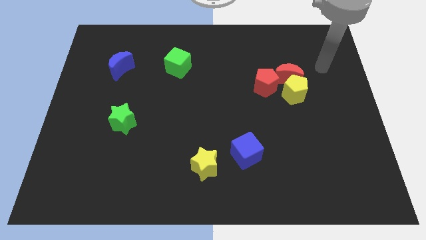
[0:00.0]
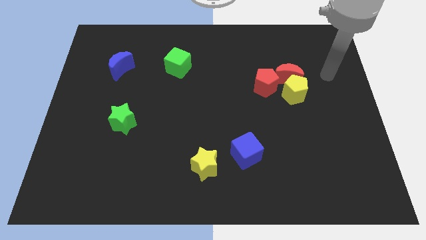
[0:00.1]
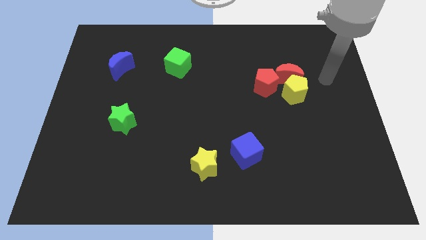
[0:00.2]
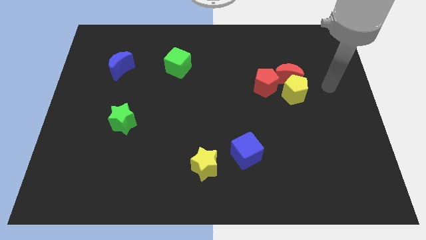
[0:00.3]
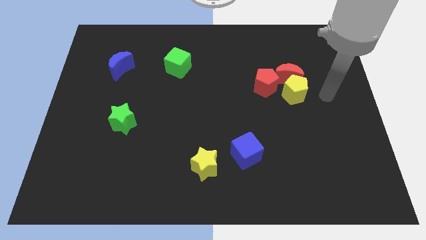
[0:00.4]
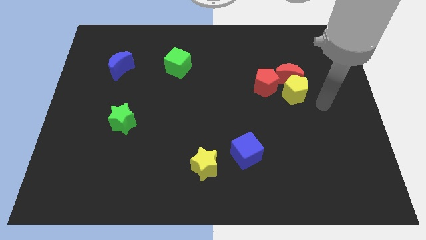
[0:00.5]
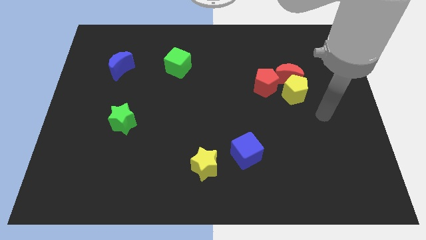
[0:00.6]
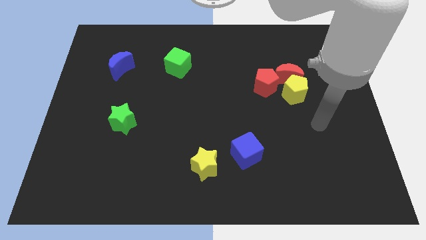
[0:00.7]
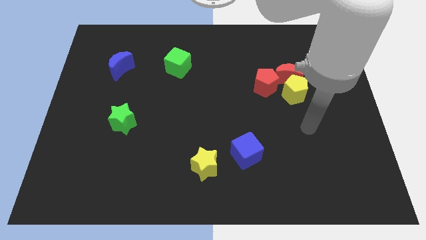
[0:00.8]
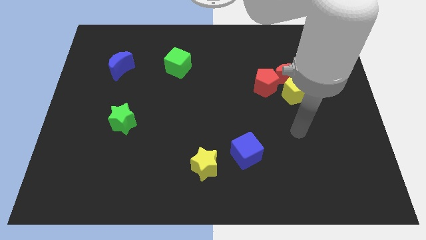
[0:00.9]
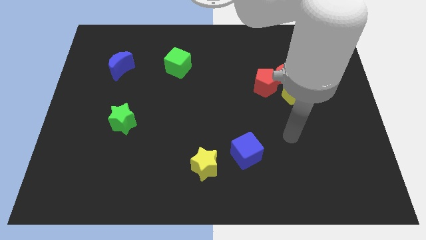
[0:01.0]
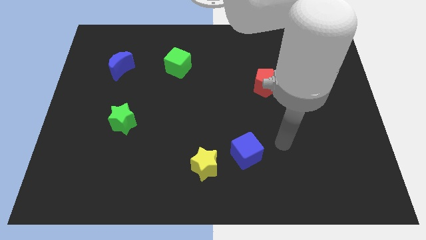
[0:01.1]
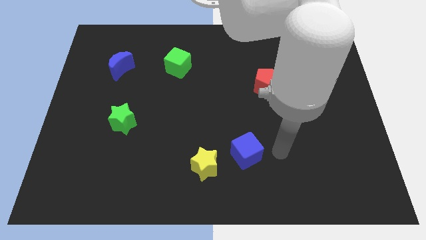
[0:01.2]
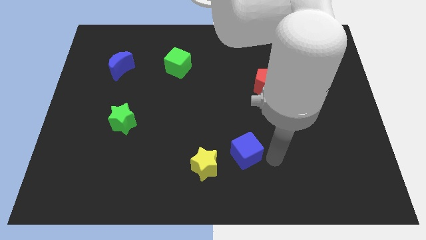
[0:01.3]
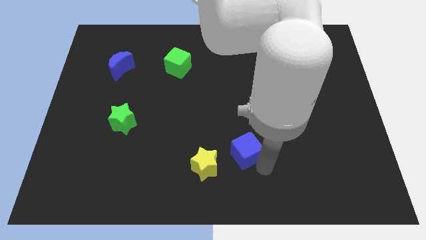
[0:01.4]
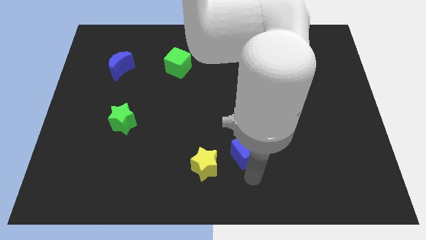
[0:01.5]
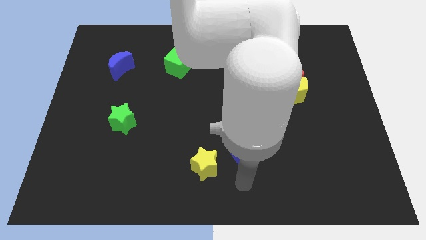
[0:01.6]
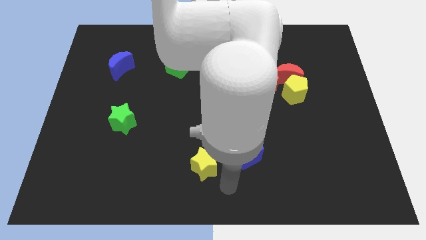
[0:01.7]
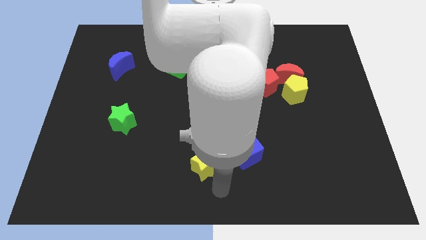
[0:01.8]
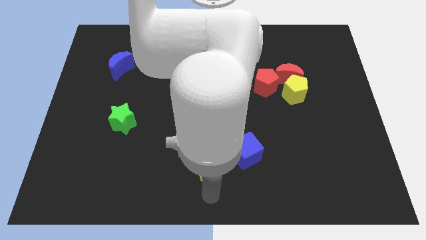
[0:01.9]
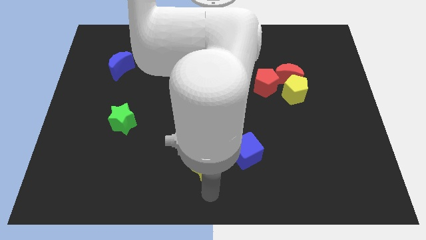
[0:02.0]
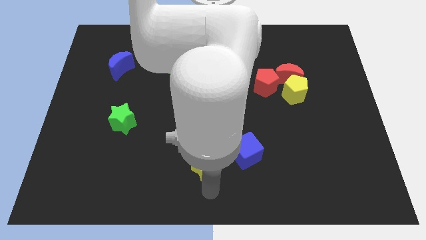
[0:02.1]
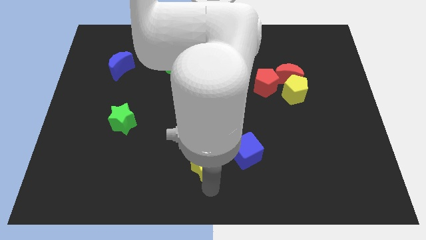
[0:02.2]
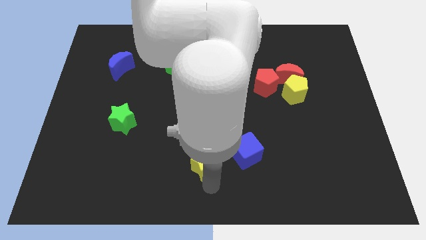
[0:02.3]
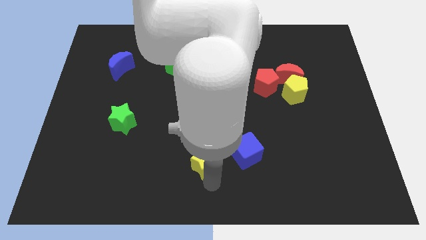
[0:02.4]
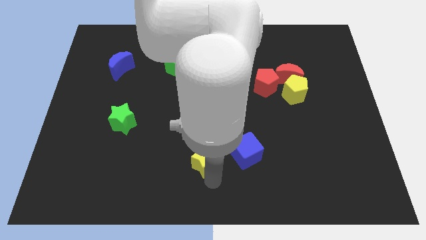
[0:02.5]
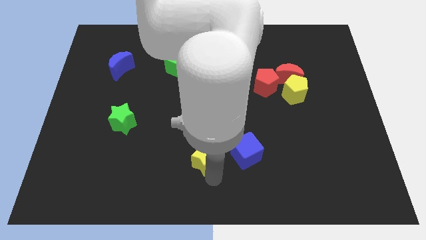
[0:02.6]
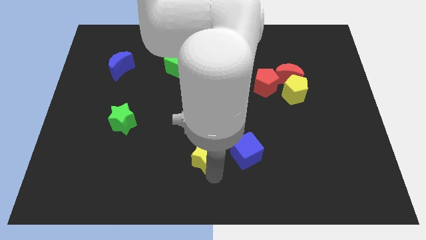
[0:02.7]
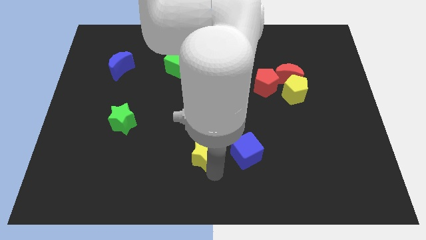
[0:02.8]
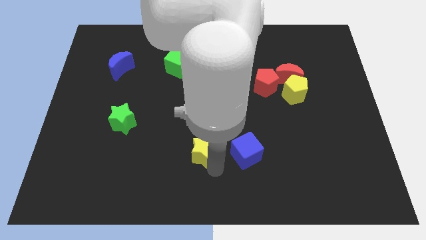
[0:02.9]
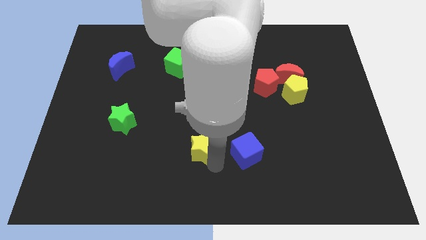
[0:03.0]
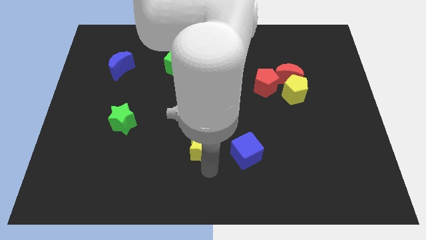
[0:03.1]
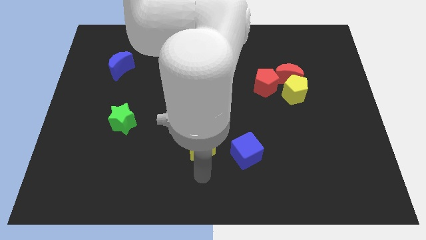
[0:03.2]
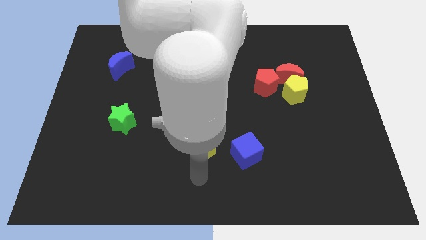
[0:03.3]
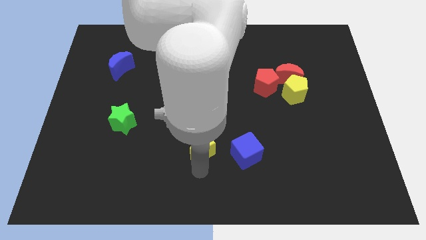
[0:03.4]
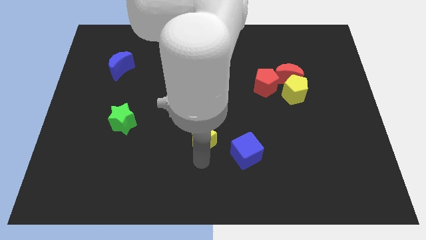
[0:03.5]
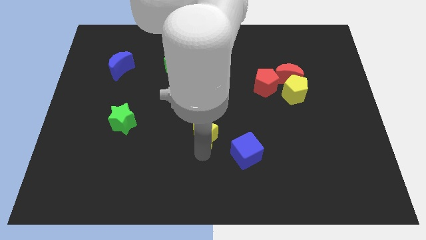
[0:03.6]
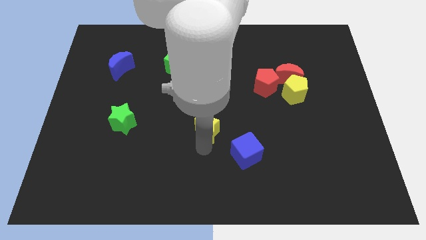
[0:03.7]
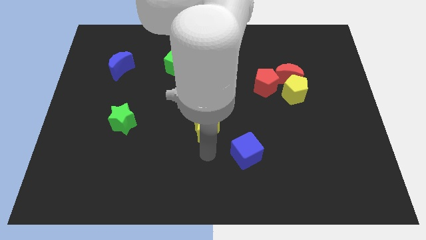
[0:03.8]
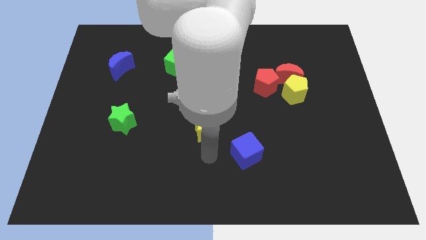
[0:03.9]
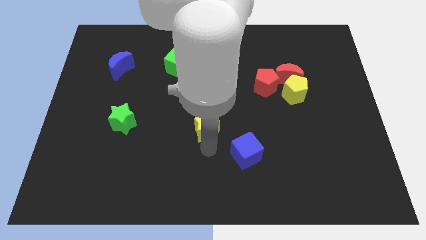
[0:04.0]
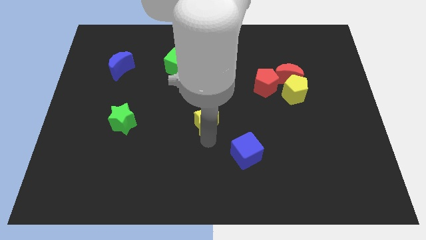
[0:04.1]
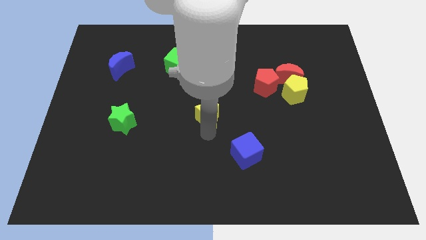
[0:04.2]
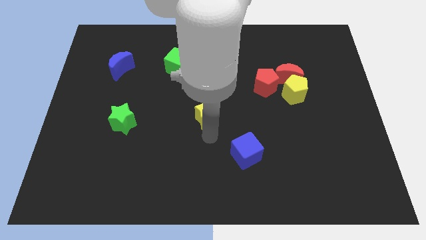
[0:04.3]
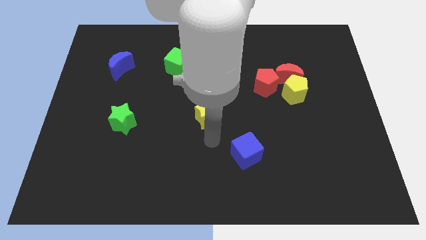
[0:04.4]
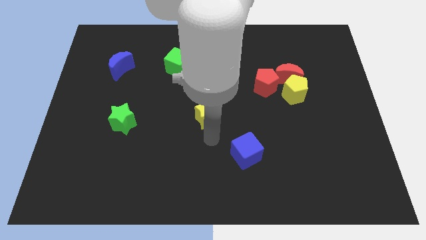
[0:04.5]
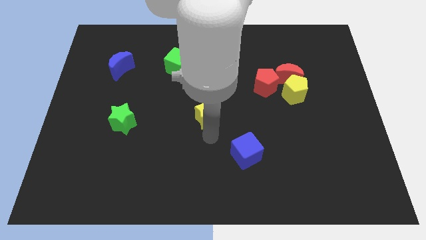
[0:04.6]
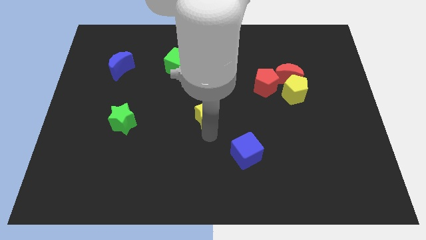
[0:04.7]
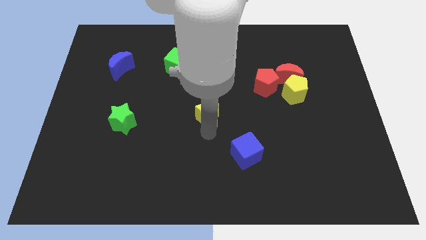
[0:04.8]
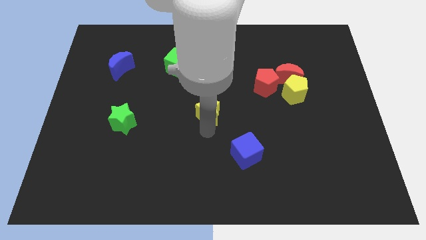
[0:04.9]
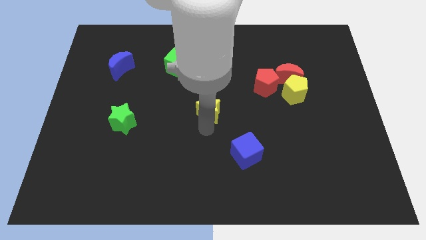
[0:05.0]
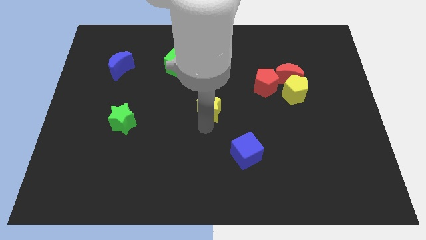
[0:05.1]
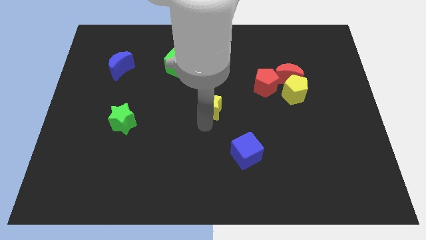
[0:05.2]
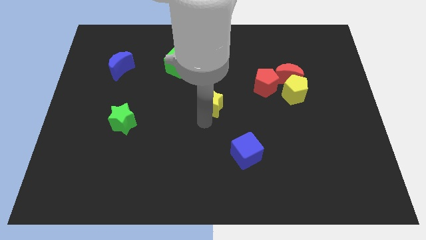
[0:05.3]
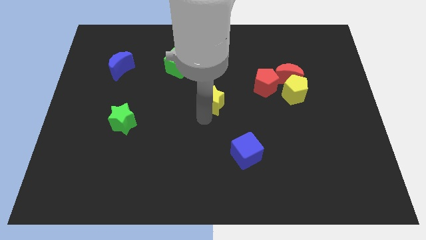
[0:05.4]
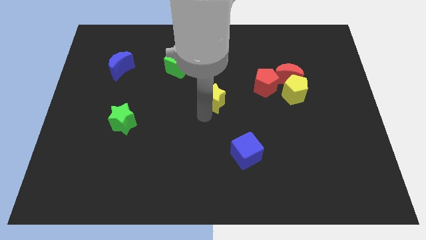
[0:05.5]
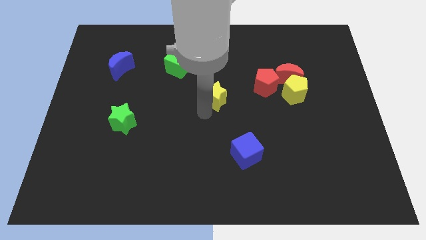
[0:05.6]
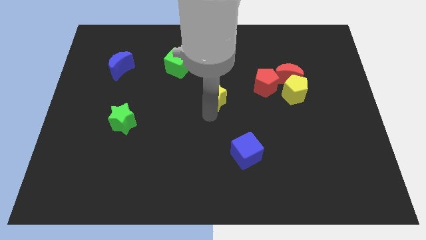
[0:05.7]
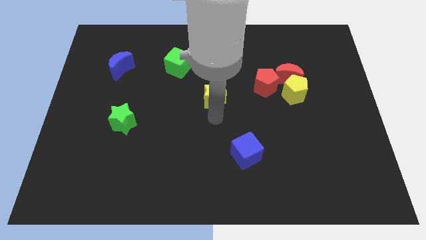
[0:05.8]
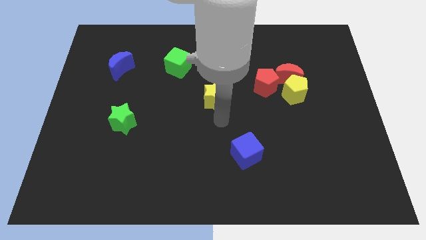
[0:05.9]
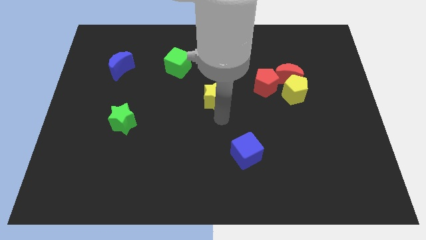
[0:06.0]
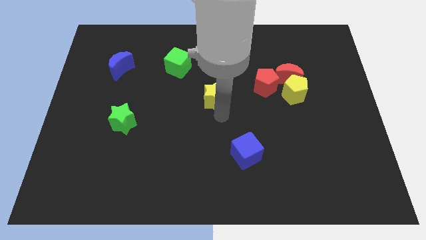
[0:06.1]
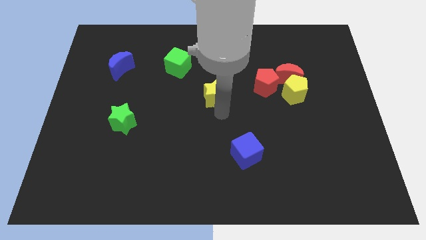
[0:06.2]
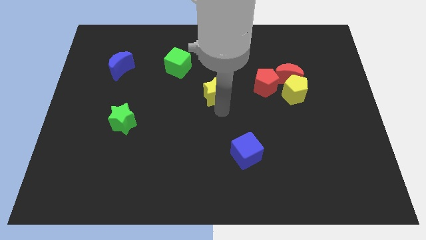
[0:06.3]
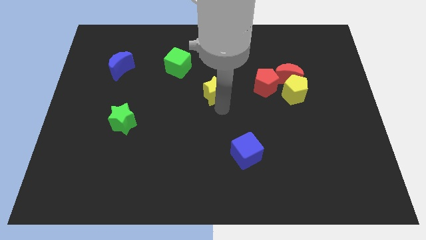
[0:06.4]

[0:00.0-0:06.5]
move the yellow star up

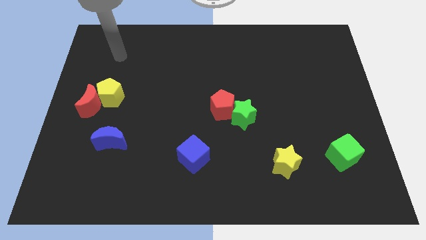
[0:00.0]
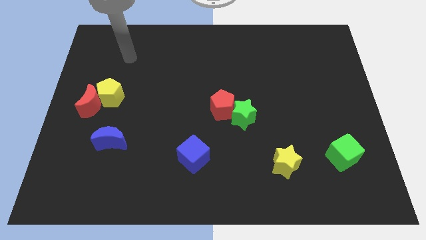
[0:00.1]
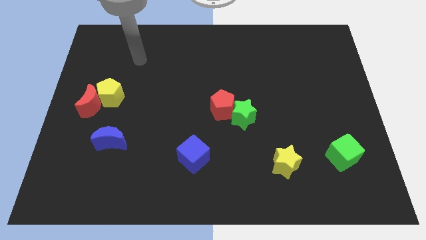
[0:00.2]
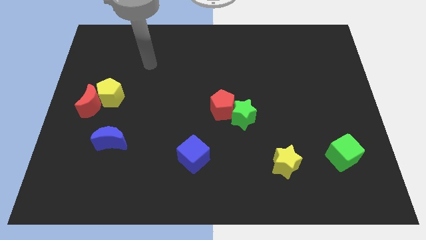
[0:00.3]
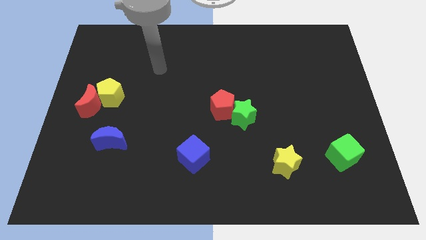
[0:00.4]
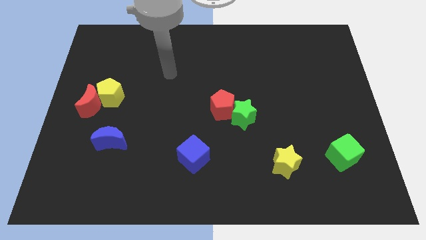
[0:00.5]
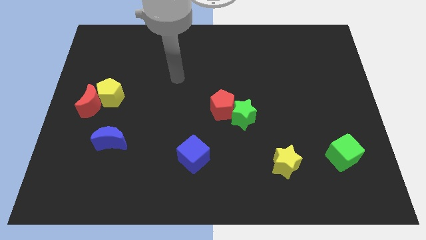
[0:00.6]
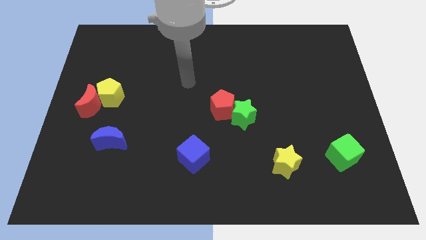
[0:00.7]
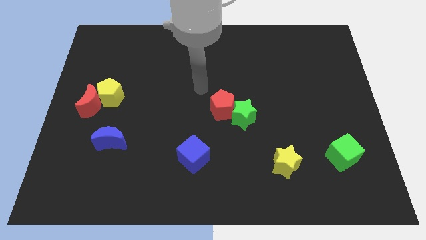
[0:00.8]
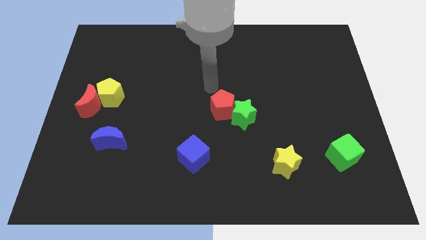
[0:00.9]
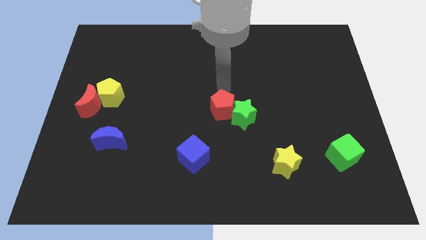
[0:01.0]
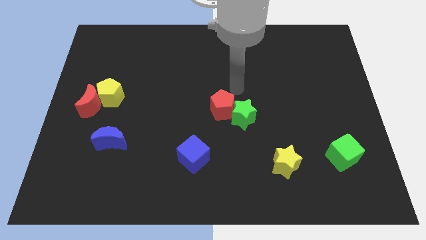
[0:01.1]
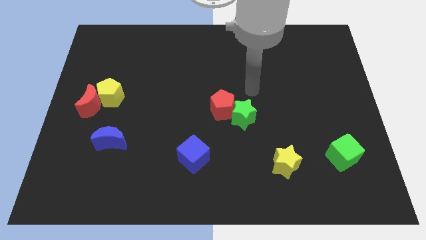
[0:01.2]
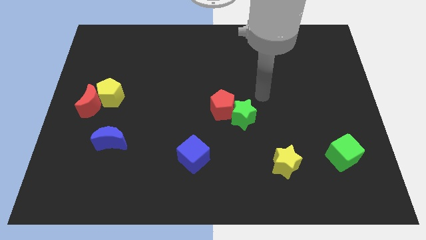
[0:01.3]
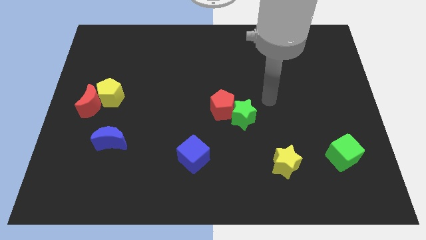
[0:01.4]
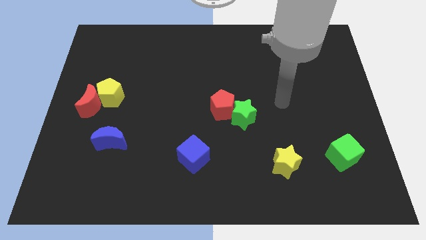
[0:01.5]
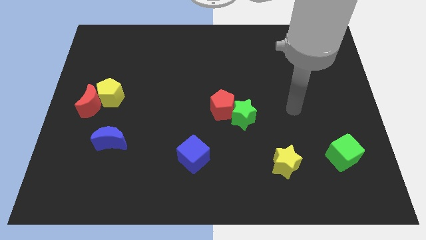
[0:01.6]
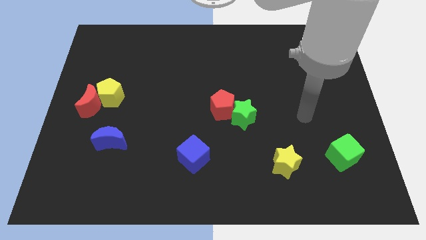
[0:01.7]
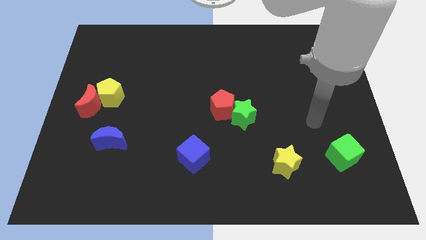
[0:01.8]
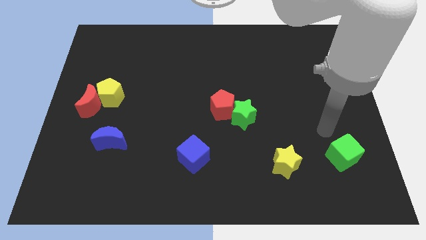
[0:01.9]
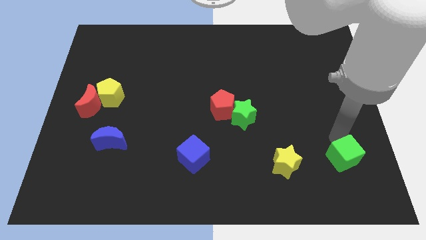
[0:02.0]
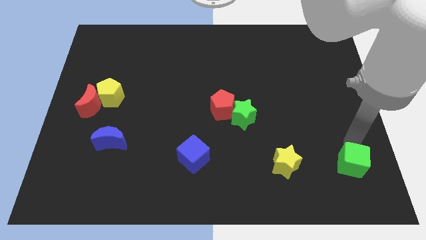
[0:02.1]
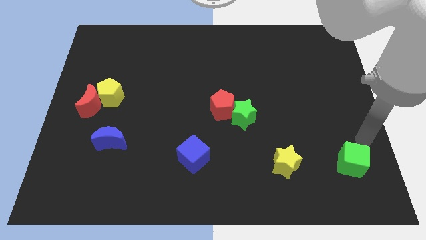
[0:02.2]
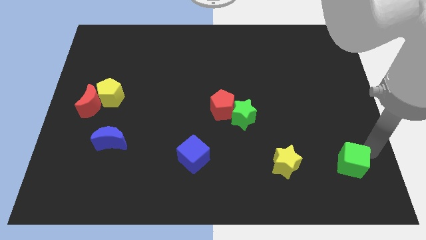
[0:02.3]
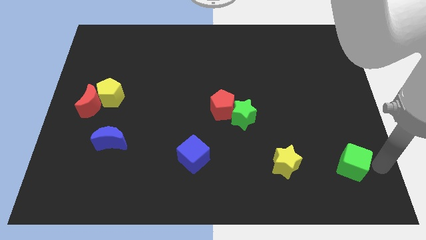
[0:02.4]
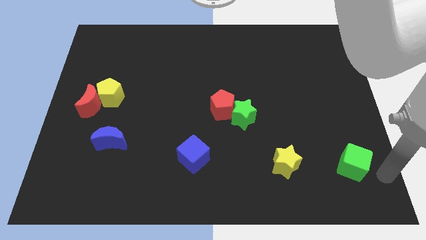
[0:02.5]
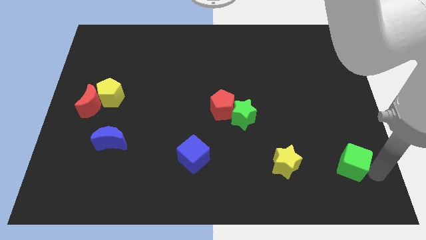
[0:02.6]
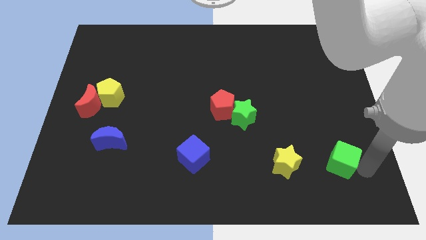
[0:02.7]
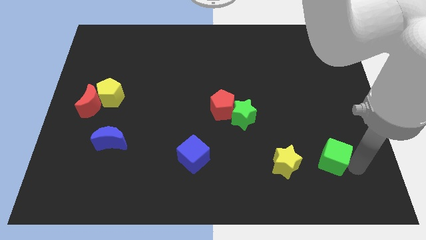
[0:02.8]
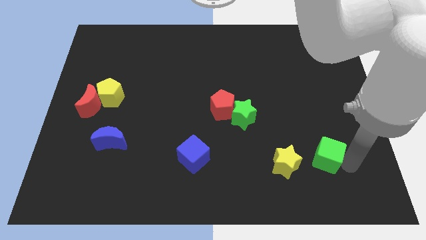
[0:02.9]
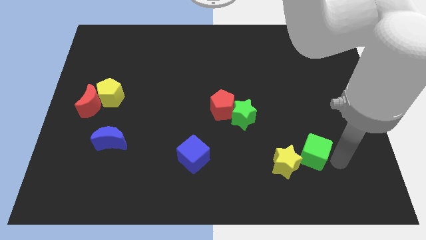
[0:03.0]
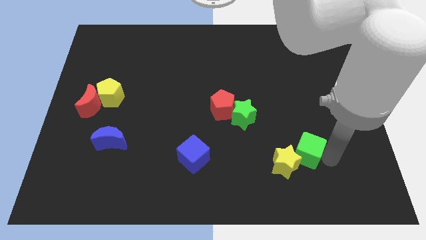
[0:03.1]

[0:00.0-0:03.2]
slide the green cube a little left
